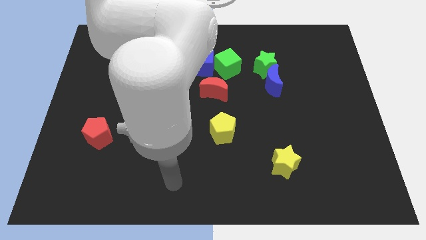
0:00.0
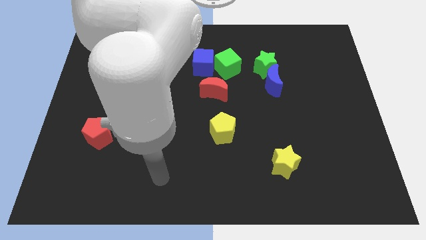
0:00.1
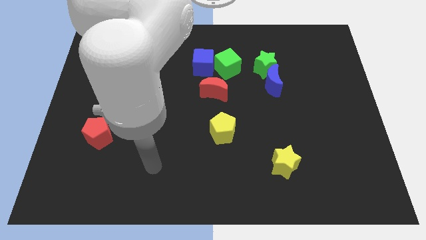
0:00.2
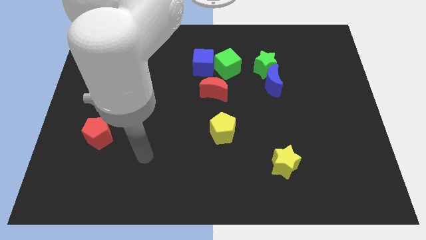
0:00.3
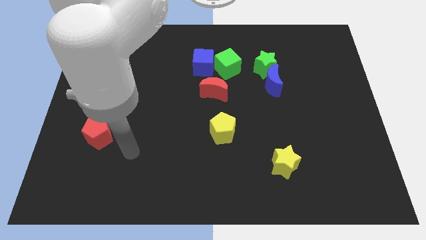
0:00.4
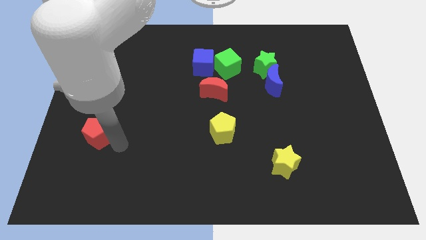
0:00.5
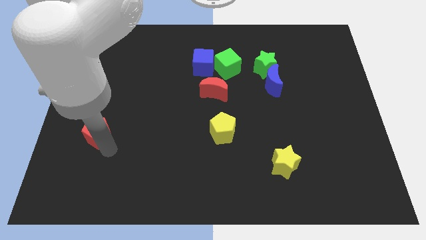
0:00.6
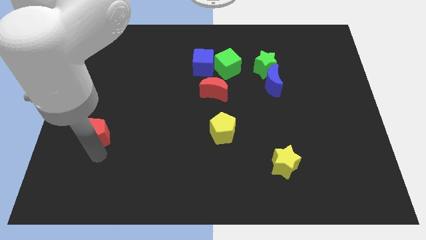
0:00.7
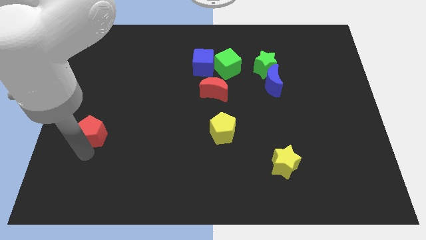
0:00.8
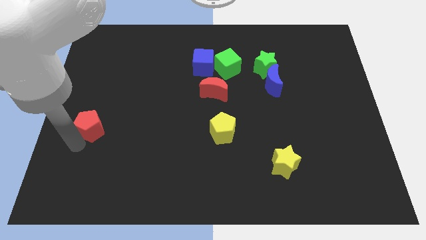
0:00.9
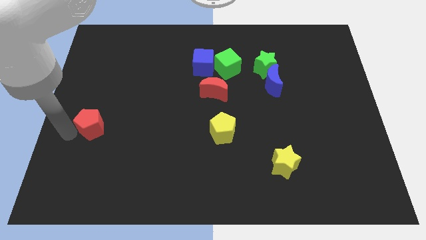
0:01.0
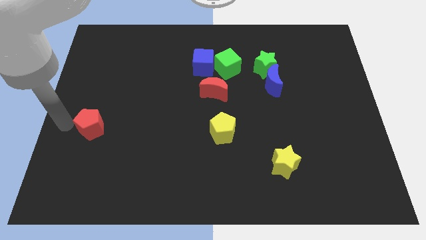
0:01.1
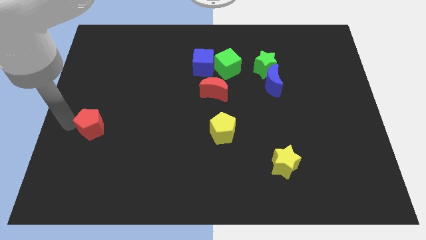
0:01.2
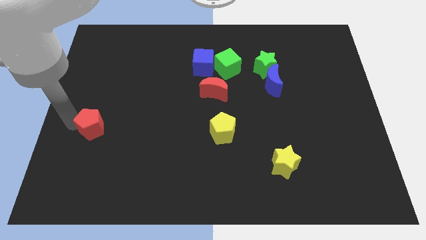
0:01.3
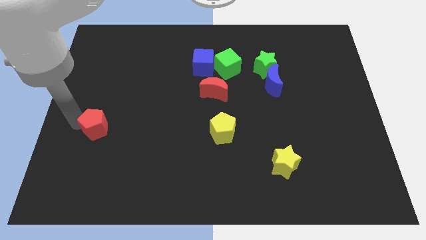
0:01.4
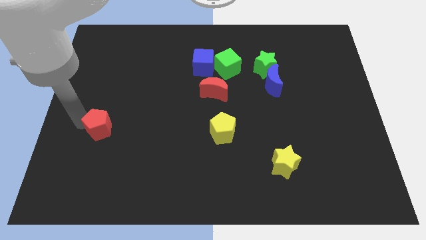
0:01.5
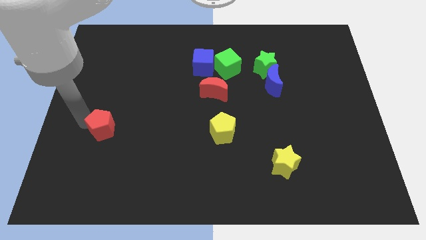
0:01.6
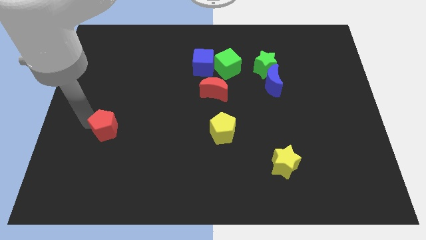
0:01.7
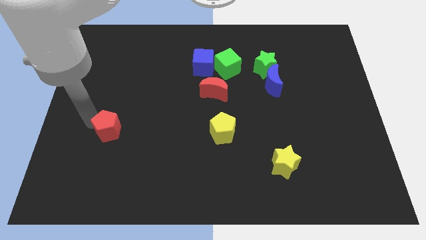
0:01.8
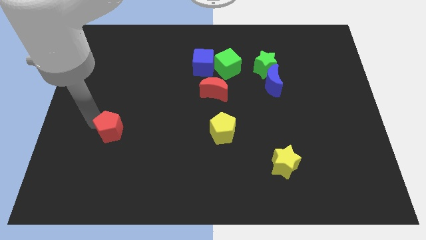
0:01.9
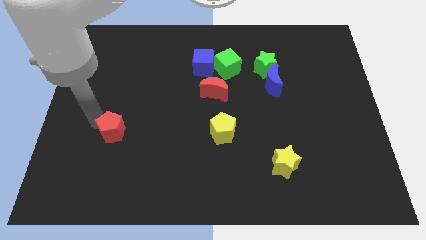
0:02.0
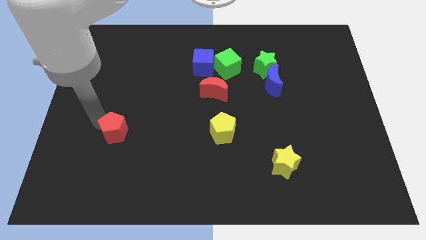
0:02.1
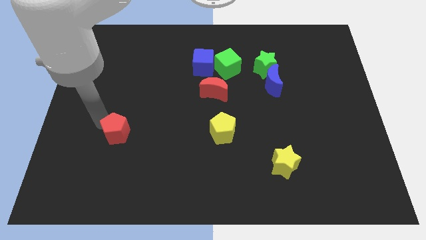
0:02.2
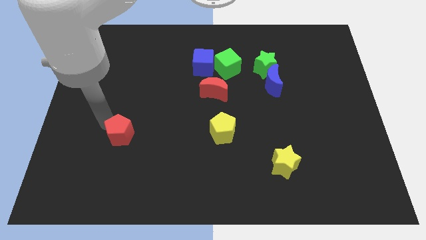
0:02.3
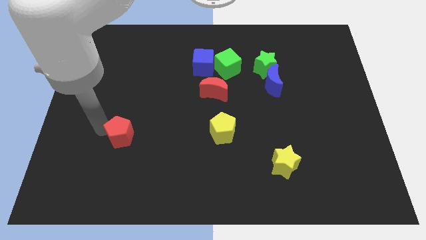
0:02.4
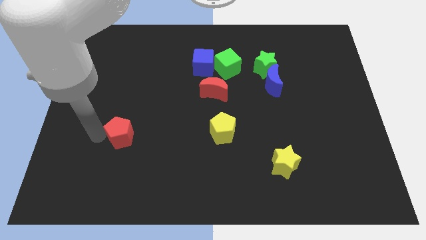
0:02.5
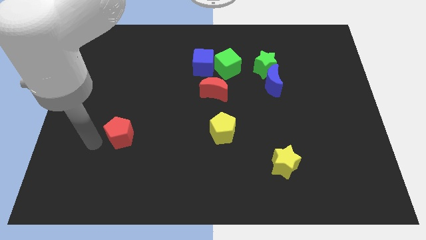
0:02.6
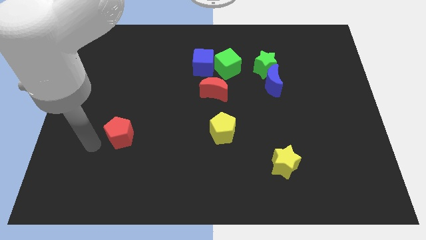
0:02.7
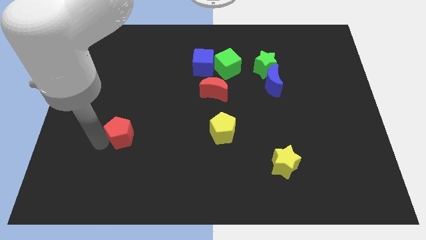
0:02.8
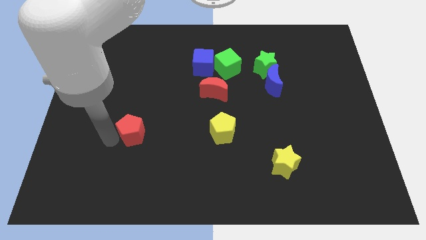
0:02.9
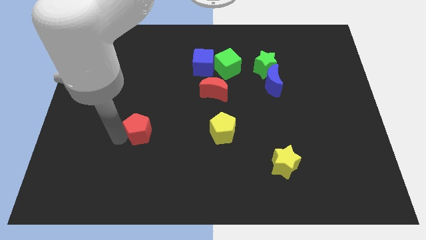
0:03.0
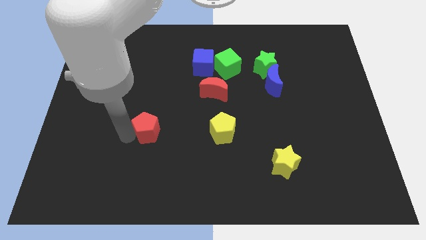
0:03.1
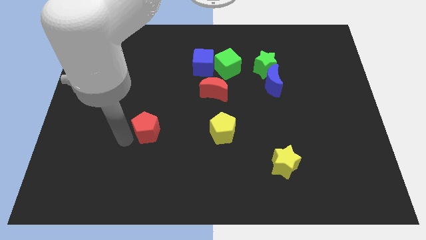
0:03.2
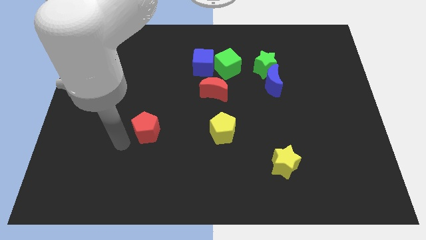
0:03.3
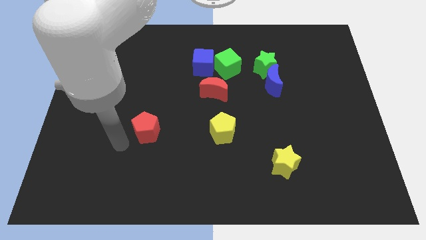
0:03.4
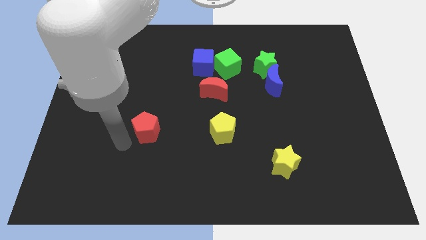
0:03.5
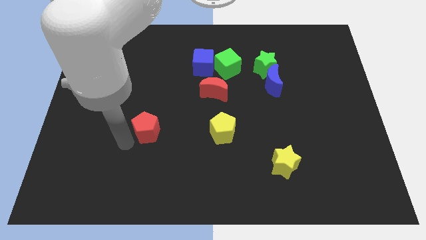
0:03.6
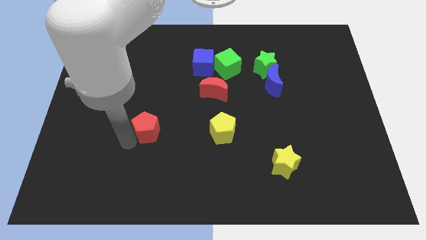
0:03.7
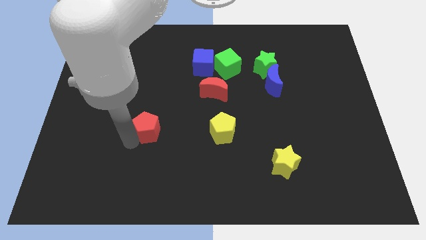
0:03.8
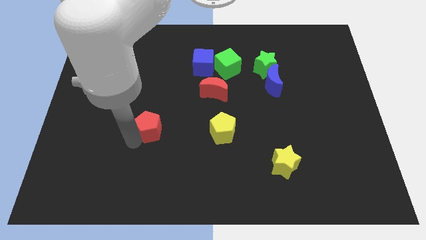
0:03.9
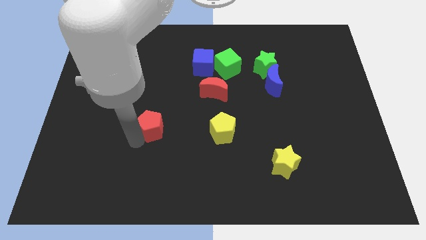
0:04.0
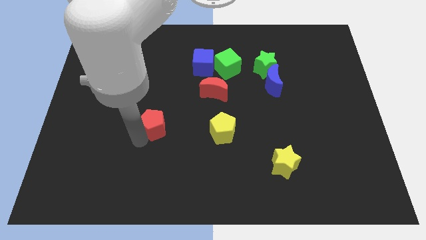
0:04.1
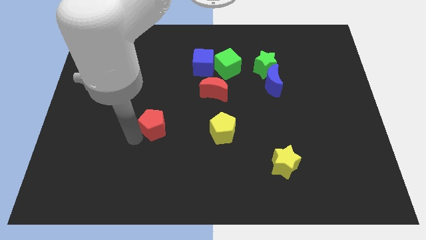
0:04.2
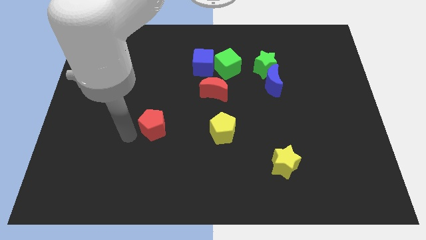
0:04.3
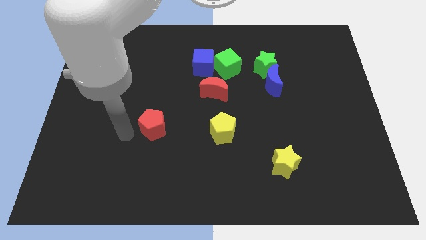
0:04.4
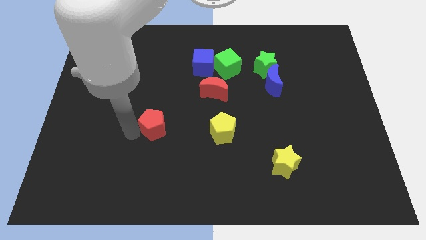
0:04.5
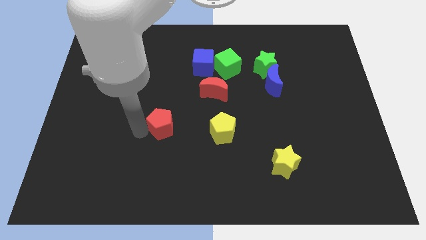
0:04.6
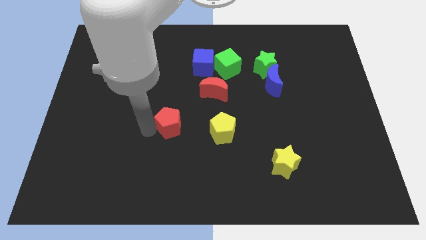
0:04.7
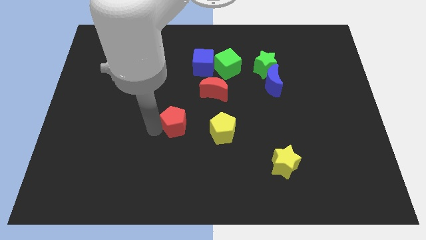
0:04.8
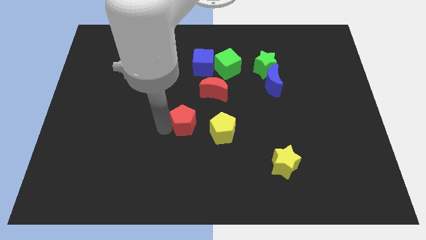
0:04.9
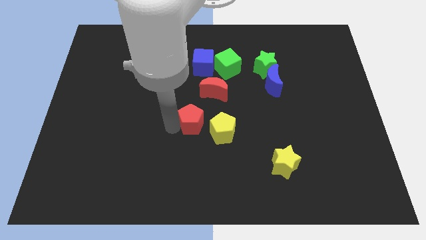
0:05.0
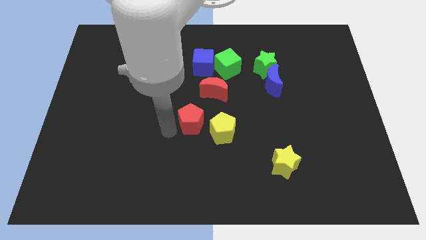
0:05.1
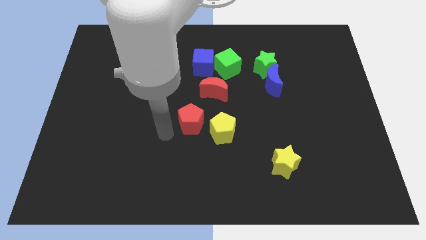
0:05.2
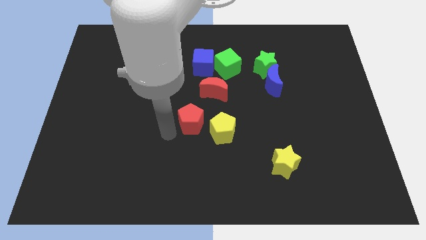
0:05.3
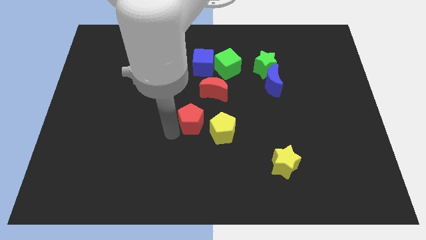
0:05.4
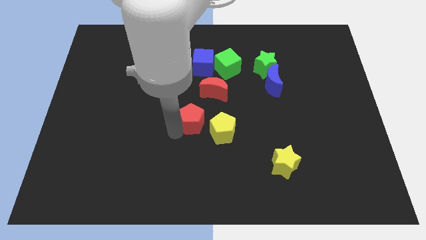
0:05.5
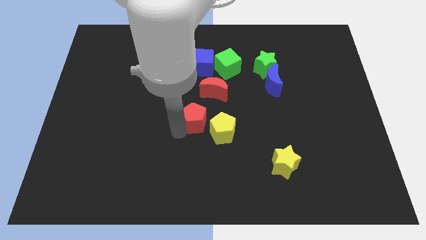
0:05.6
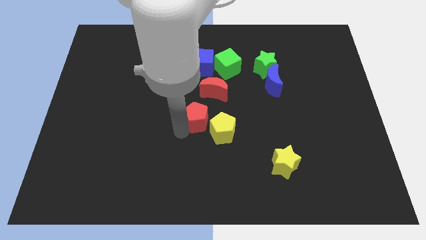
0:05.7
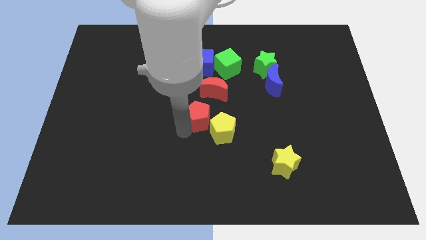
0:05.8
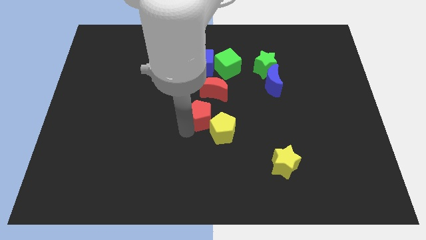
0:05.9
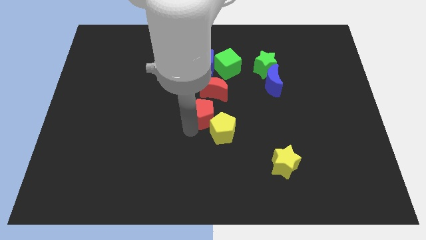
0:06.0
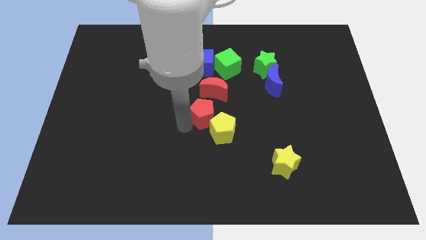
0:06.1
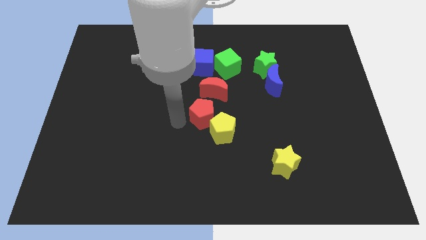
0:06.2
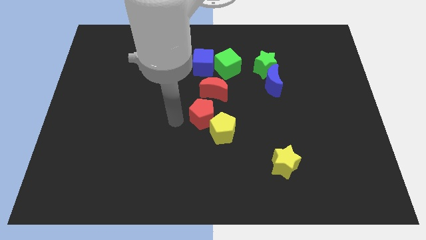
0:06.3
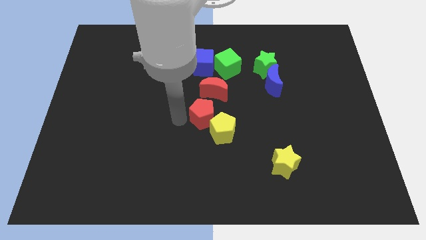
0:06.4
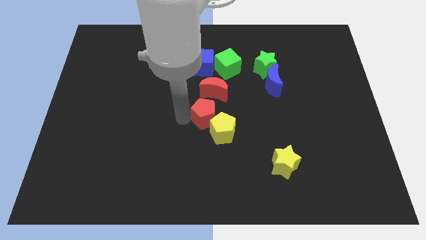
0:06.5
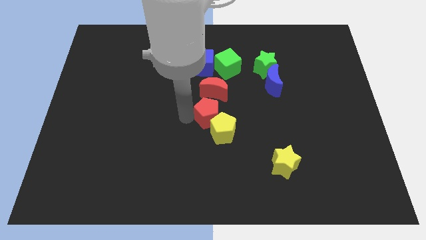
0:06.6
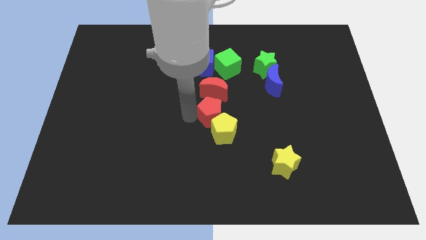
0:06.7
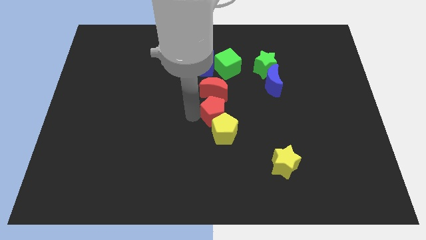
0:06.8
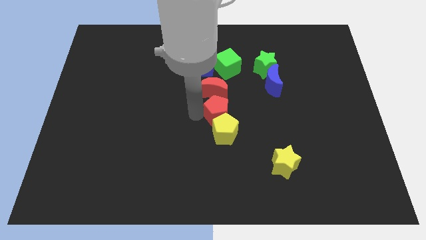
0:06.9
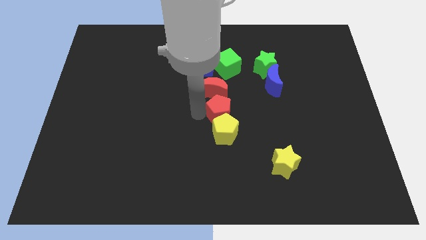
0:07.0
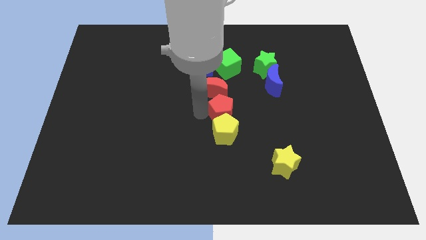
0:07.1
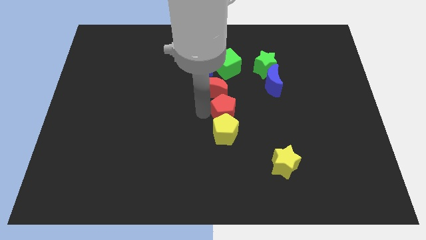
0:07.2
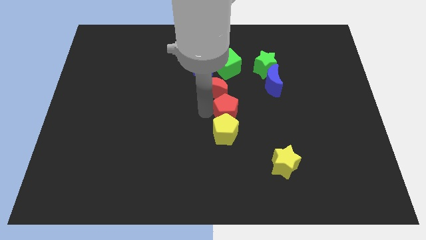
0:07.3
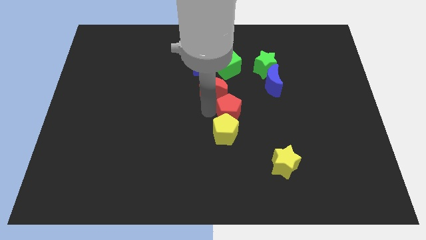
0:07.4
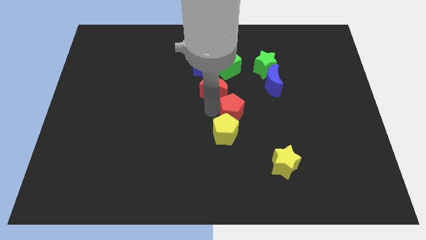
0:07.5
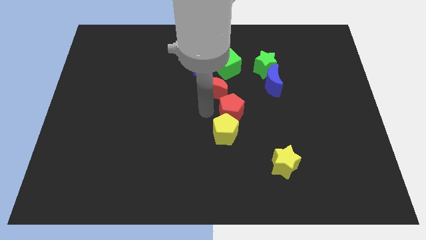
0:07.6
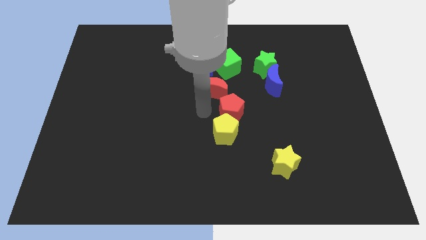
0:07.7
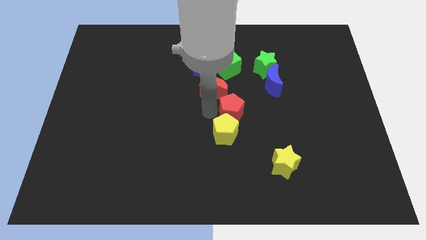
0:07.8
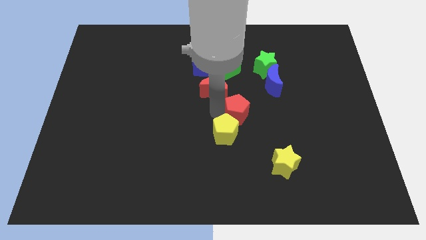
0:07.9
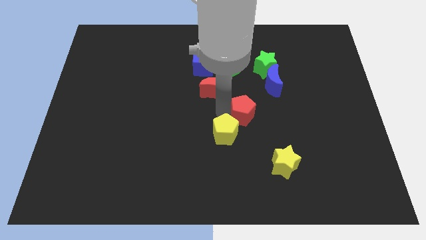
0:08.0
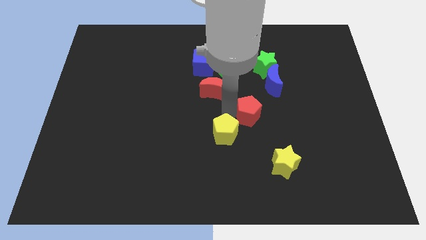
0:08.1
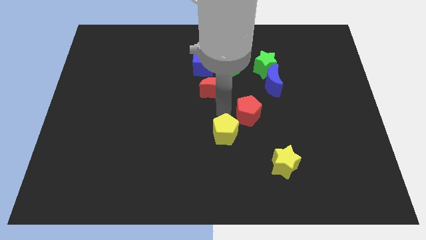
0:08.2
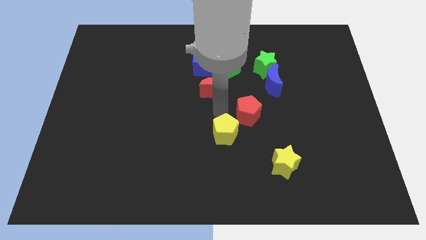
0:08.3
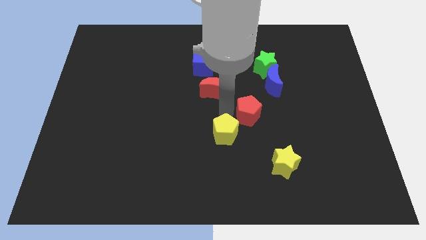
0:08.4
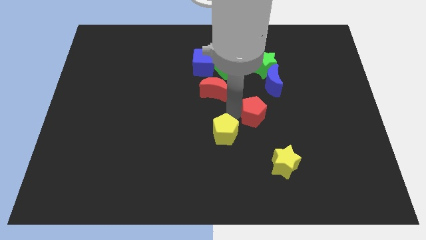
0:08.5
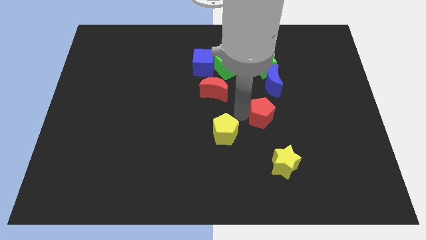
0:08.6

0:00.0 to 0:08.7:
put the red pentagon below the blue moon
